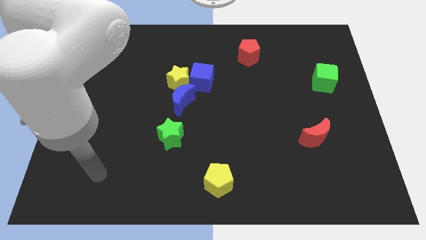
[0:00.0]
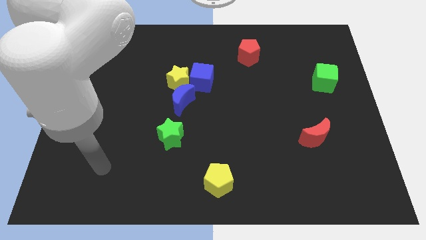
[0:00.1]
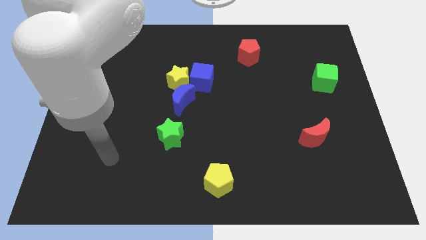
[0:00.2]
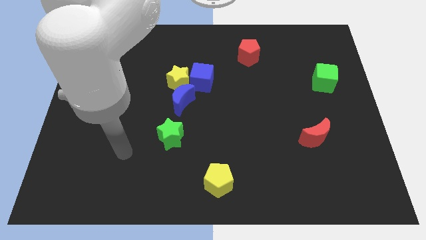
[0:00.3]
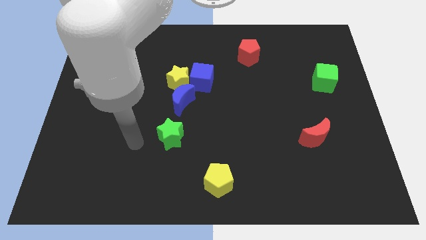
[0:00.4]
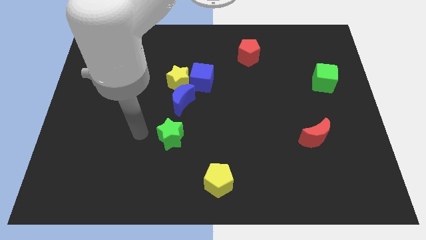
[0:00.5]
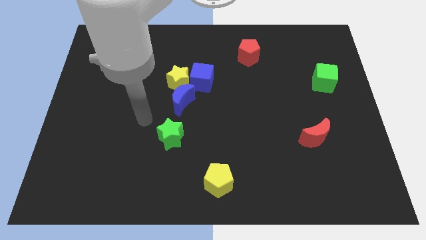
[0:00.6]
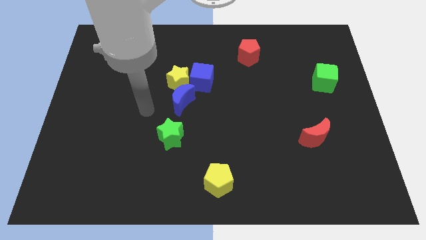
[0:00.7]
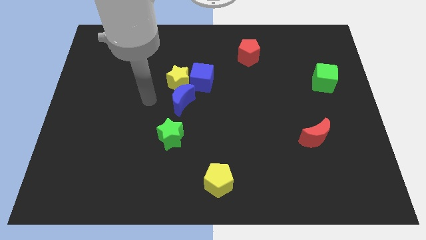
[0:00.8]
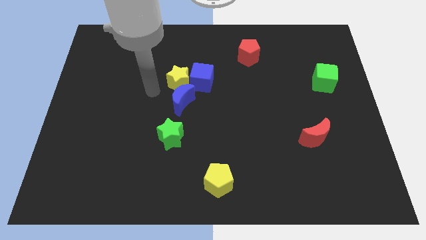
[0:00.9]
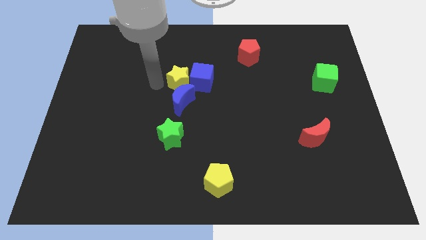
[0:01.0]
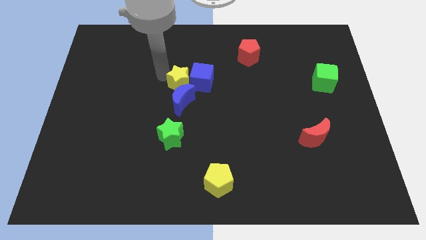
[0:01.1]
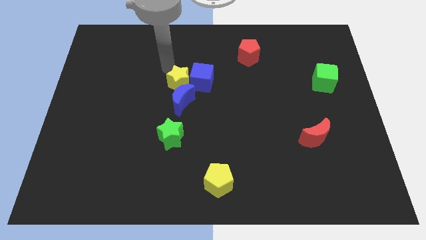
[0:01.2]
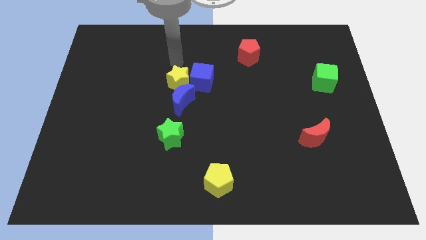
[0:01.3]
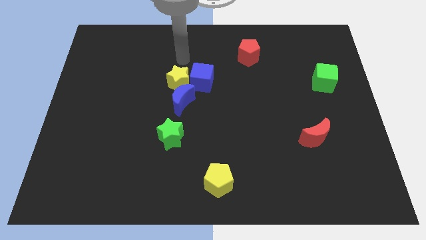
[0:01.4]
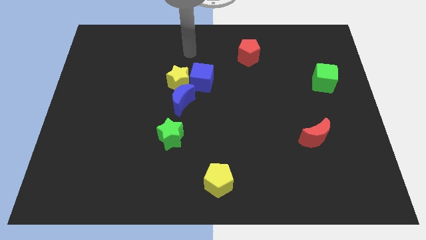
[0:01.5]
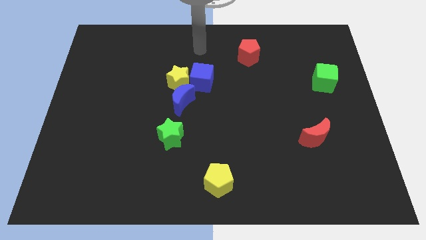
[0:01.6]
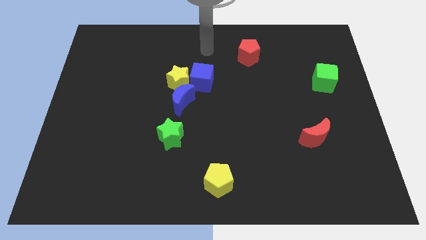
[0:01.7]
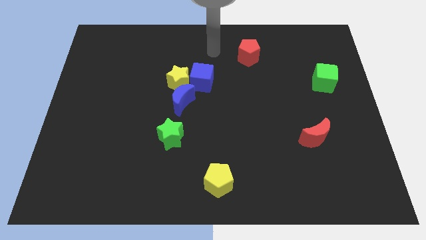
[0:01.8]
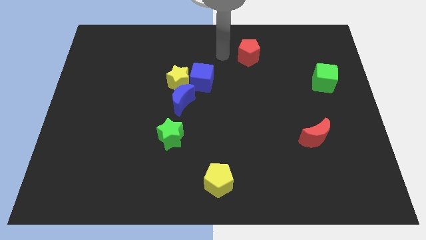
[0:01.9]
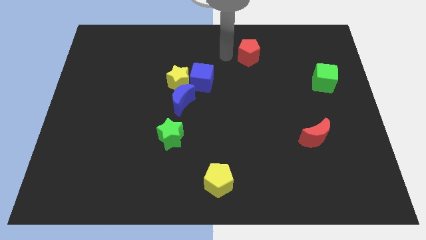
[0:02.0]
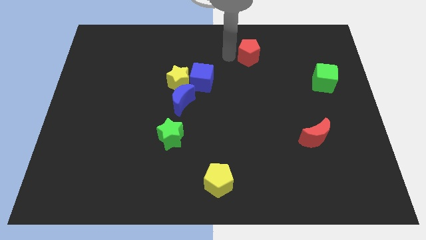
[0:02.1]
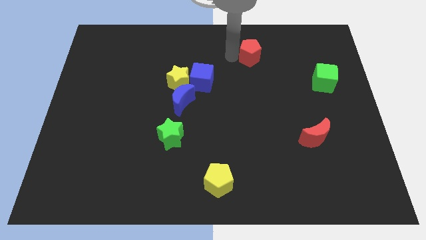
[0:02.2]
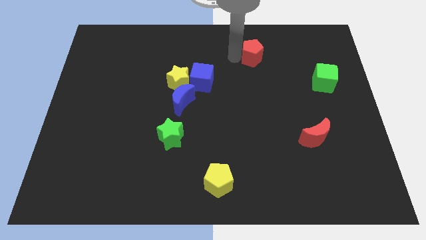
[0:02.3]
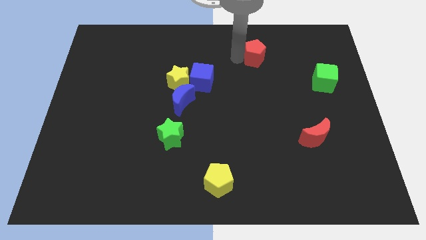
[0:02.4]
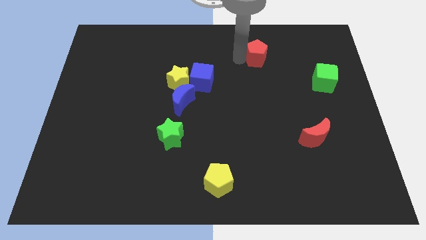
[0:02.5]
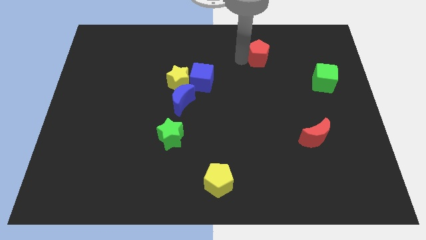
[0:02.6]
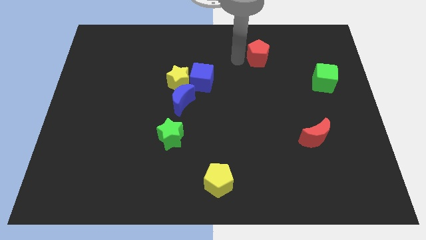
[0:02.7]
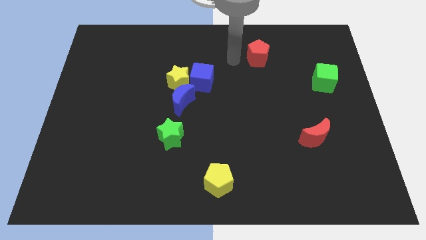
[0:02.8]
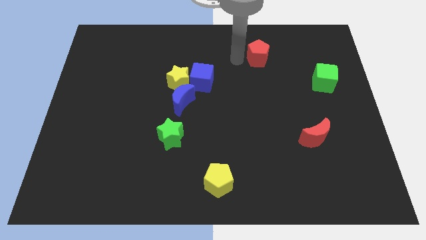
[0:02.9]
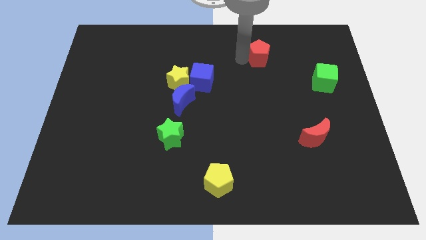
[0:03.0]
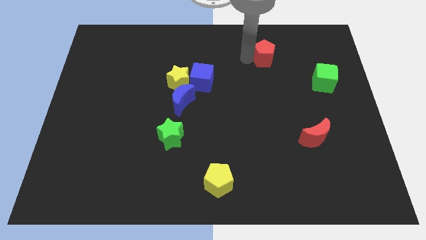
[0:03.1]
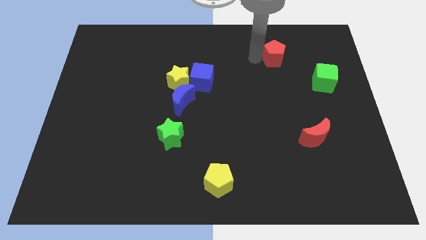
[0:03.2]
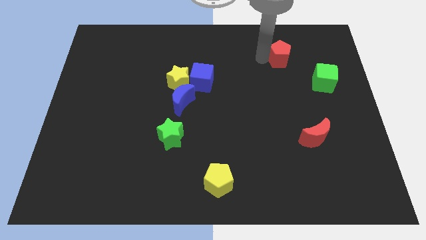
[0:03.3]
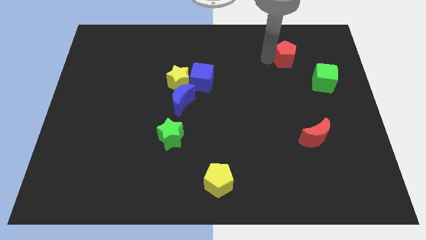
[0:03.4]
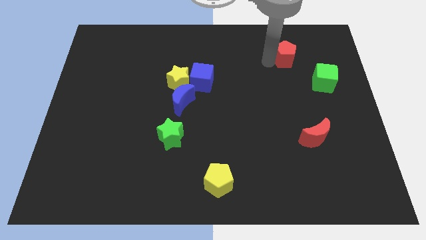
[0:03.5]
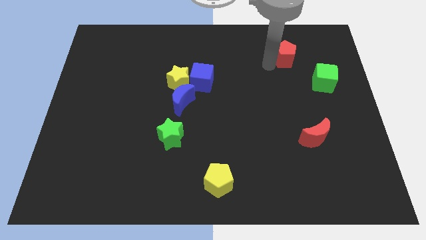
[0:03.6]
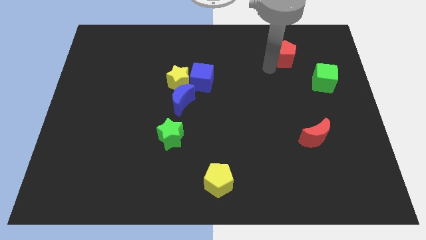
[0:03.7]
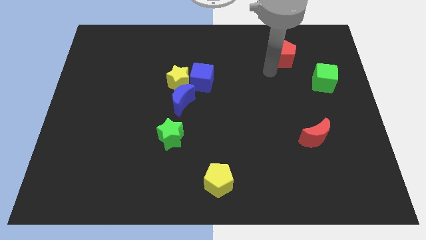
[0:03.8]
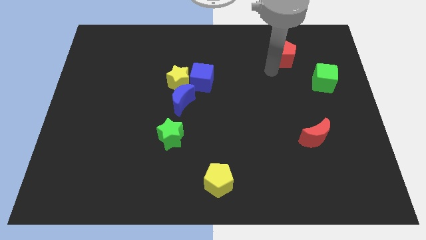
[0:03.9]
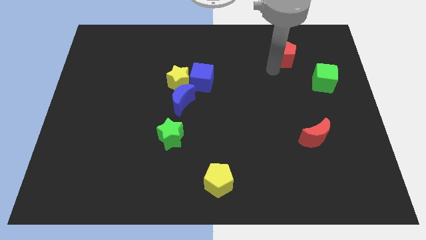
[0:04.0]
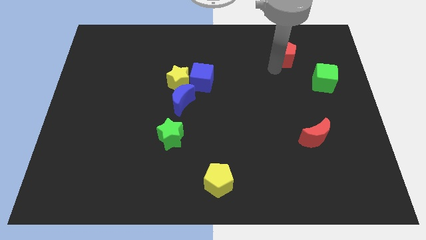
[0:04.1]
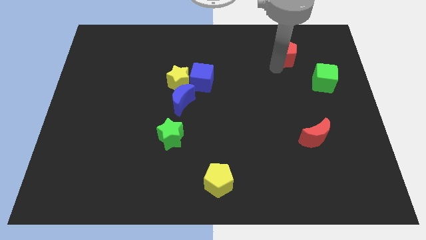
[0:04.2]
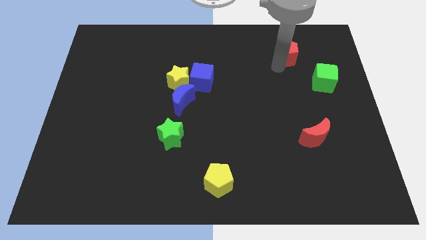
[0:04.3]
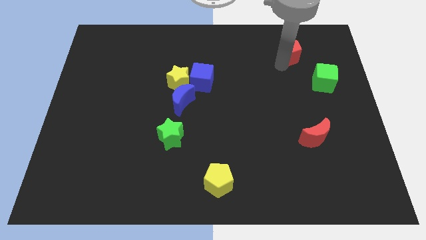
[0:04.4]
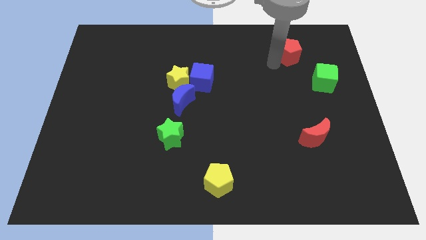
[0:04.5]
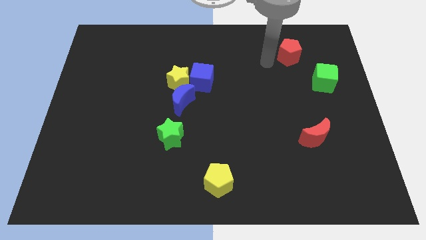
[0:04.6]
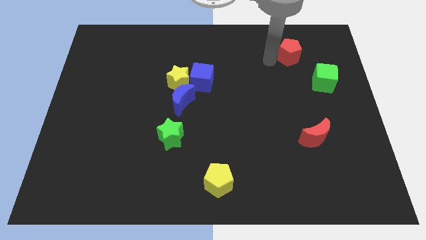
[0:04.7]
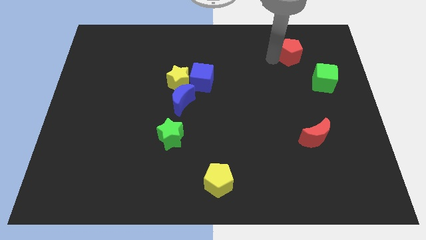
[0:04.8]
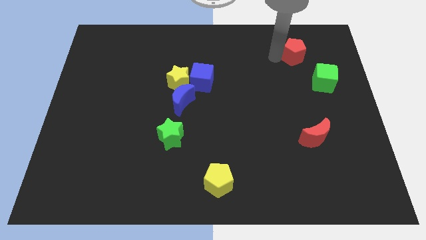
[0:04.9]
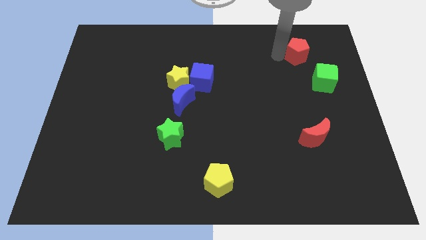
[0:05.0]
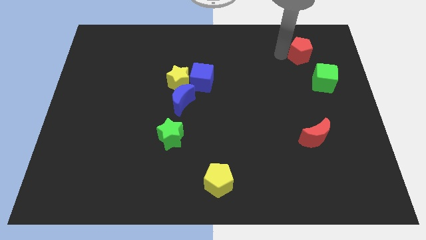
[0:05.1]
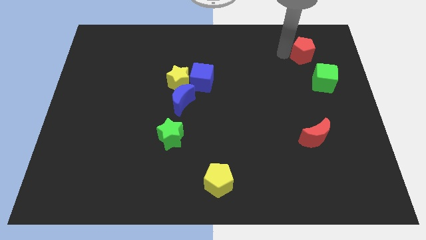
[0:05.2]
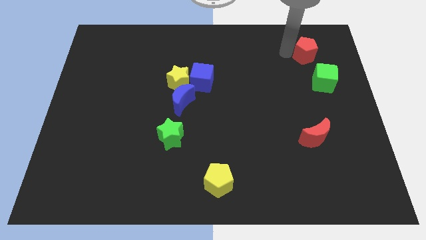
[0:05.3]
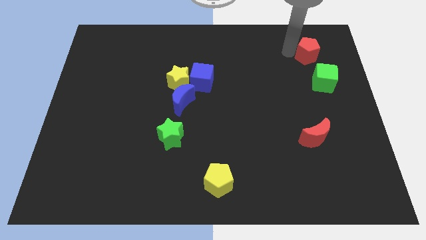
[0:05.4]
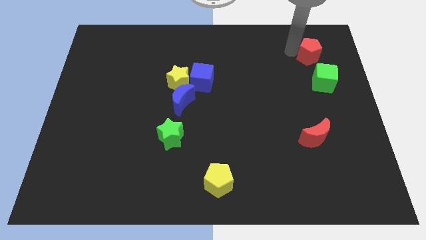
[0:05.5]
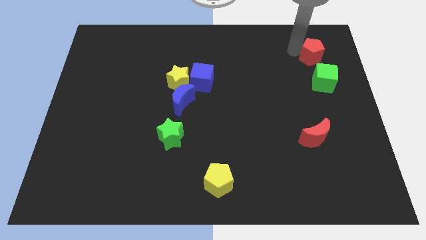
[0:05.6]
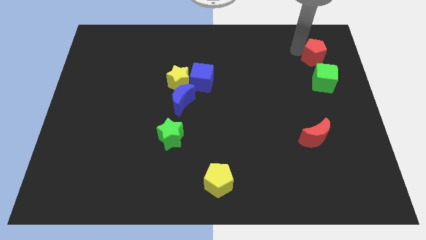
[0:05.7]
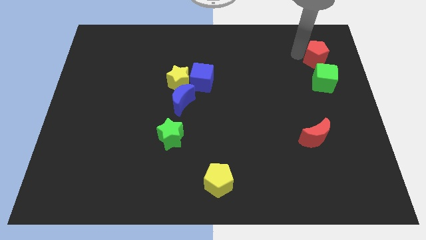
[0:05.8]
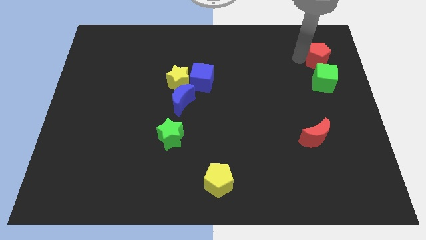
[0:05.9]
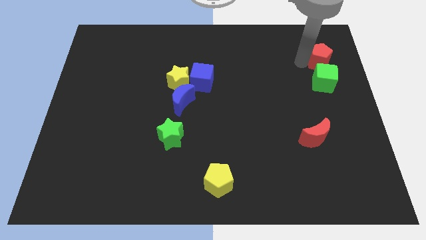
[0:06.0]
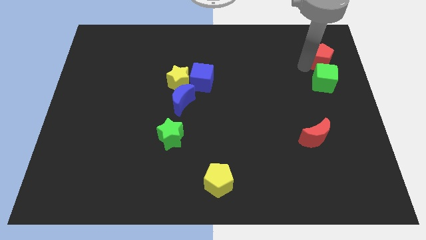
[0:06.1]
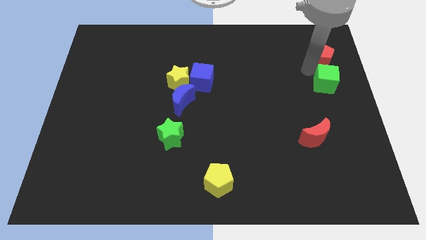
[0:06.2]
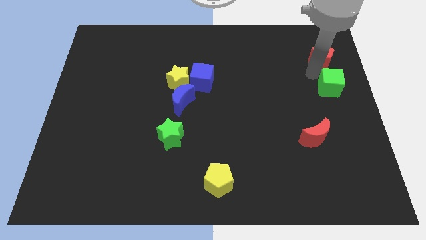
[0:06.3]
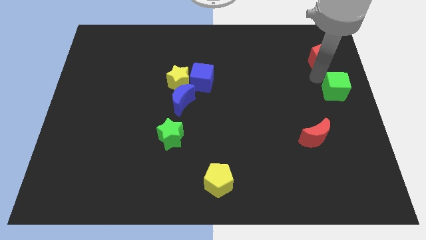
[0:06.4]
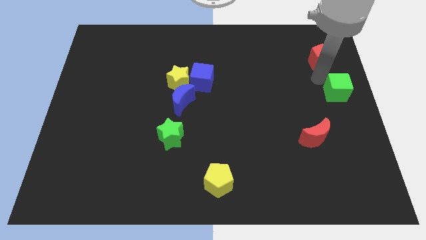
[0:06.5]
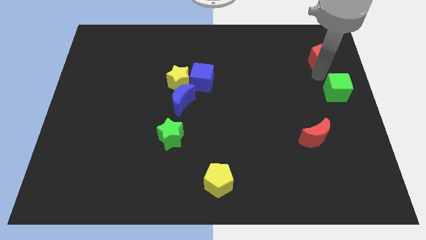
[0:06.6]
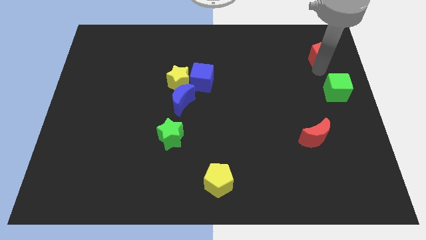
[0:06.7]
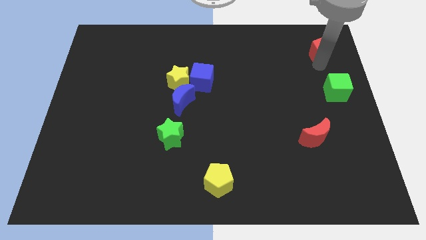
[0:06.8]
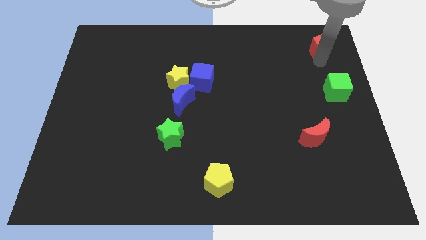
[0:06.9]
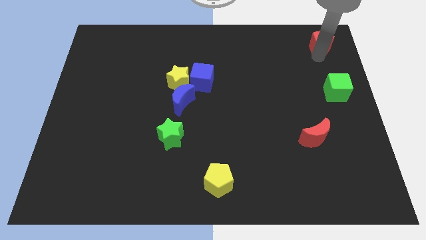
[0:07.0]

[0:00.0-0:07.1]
put the red pentagon to the top right corner

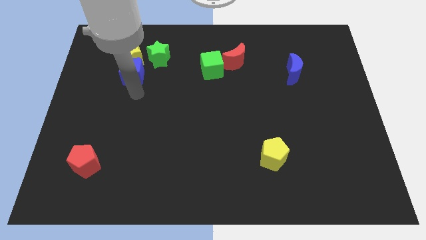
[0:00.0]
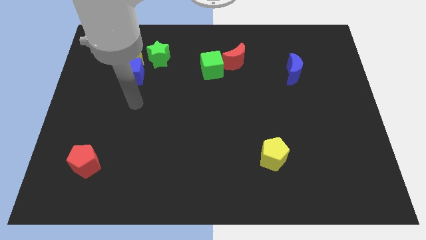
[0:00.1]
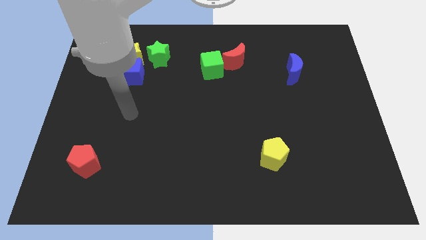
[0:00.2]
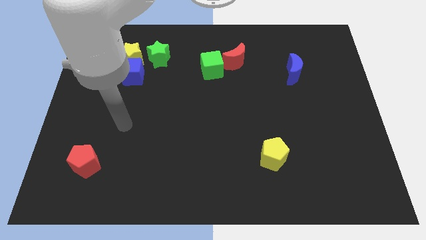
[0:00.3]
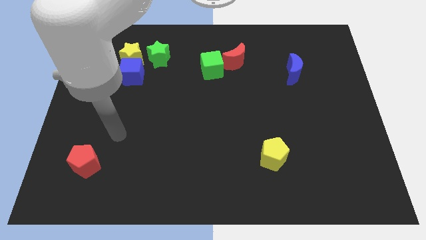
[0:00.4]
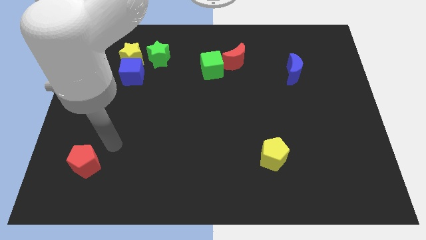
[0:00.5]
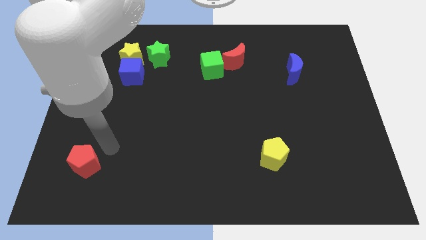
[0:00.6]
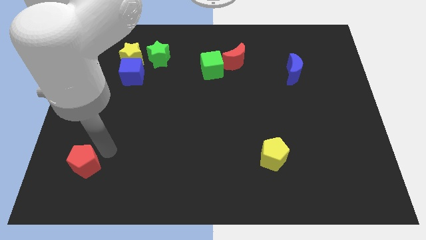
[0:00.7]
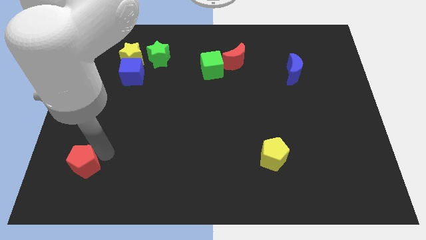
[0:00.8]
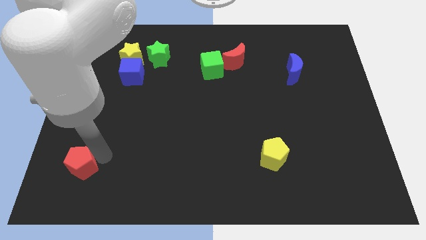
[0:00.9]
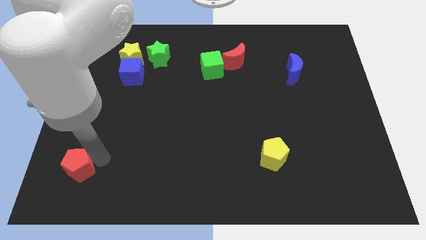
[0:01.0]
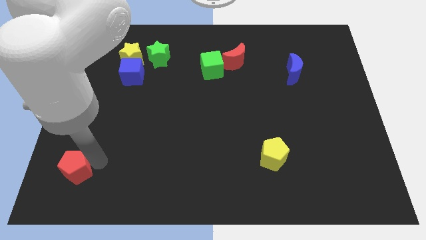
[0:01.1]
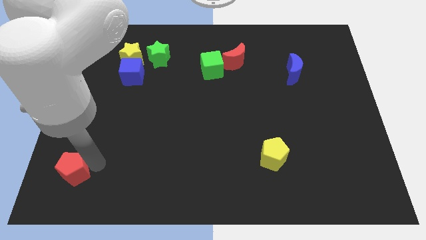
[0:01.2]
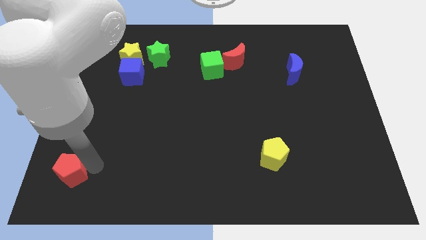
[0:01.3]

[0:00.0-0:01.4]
put the red pentagon to the bottom left
